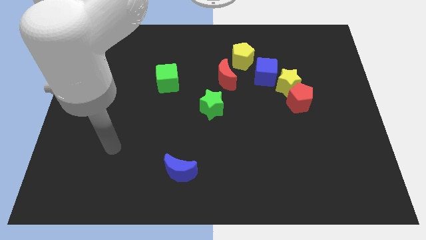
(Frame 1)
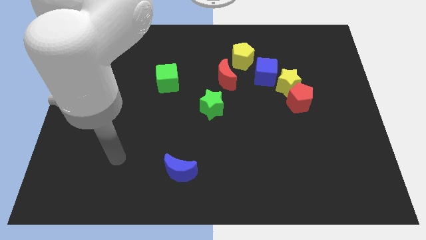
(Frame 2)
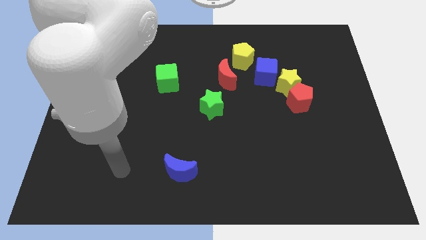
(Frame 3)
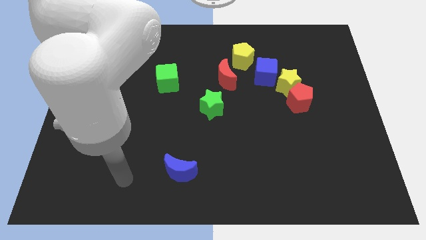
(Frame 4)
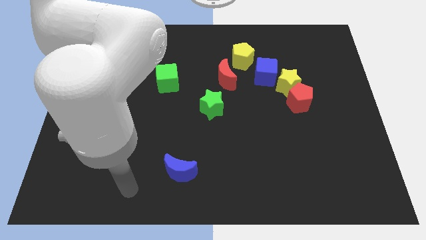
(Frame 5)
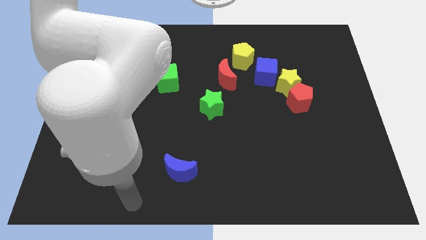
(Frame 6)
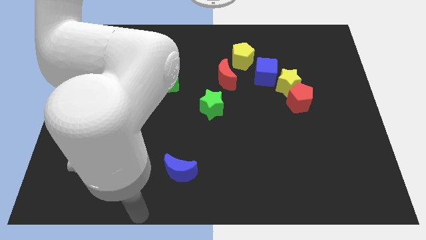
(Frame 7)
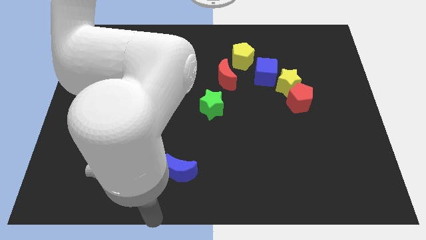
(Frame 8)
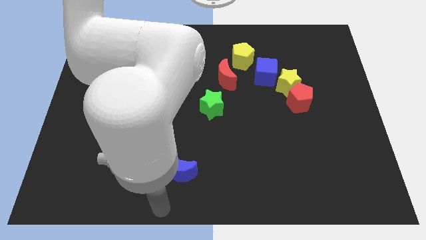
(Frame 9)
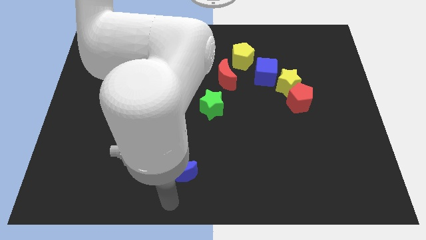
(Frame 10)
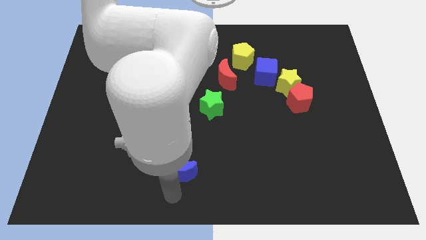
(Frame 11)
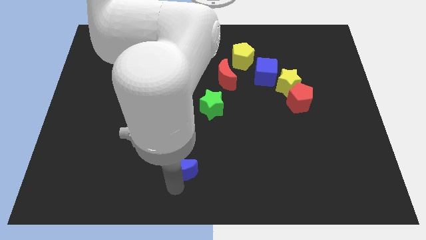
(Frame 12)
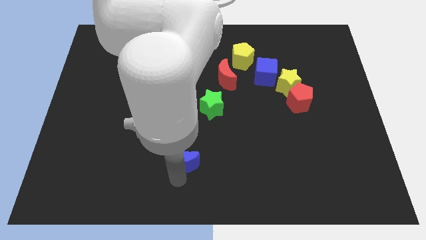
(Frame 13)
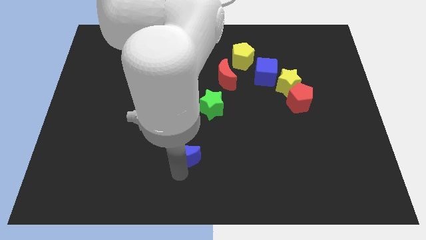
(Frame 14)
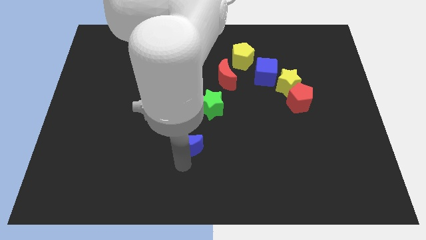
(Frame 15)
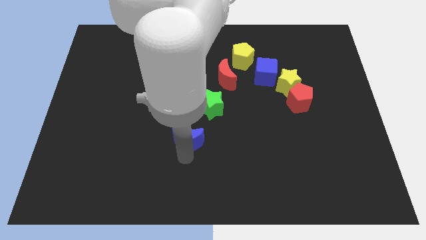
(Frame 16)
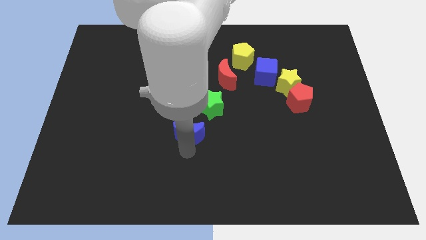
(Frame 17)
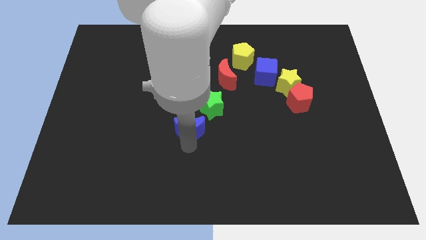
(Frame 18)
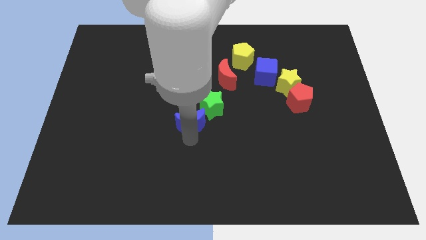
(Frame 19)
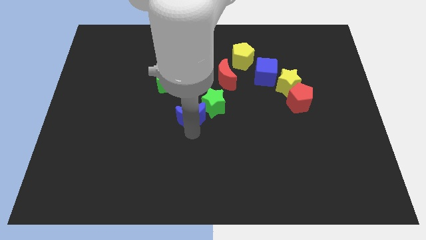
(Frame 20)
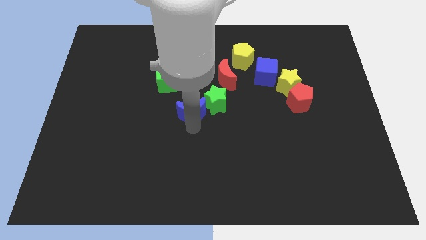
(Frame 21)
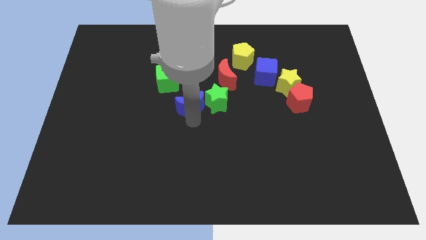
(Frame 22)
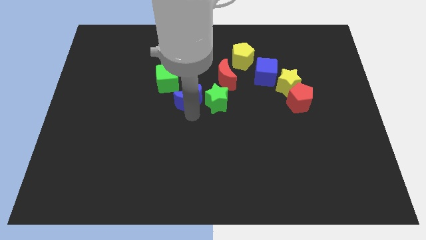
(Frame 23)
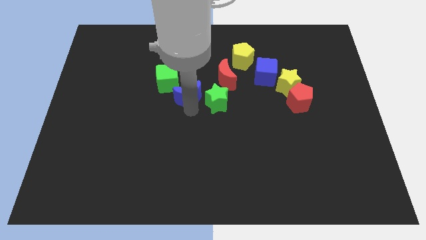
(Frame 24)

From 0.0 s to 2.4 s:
push the blue moon up

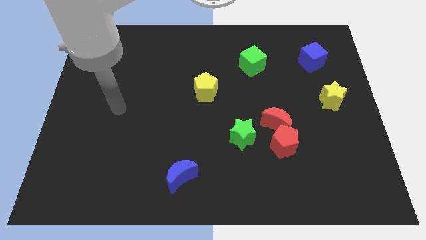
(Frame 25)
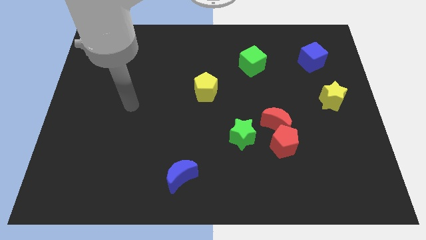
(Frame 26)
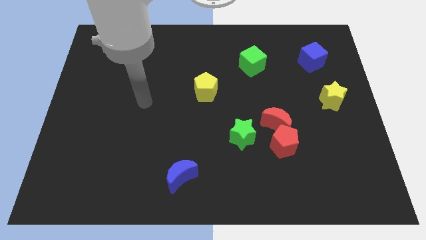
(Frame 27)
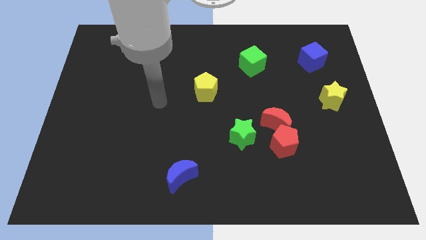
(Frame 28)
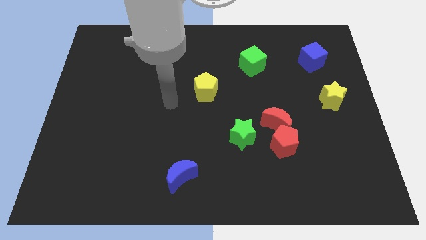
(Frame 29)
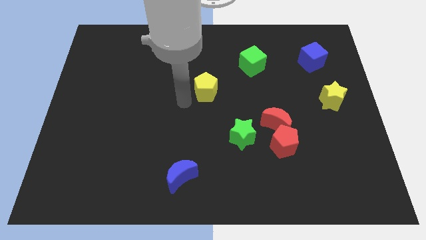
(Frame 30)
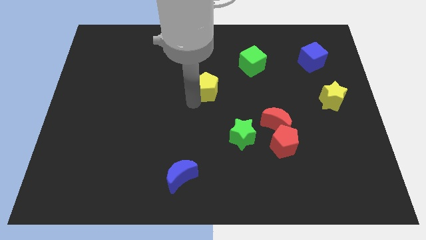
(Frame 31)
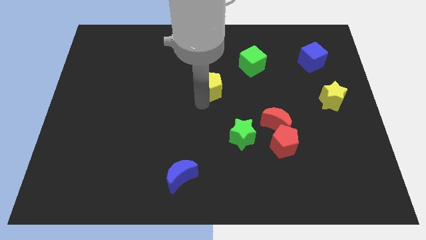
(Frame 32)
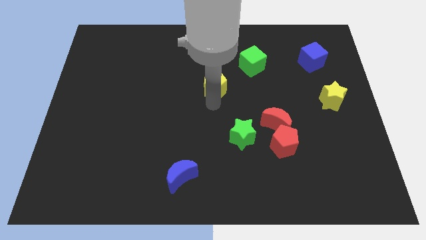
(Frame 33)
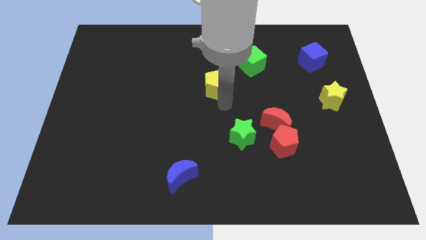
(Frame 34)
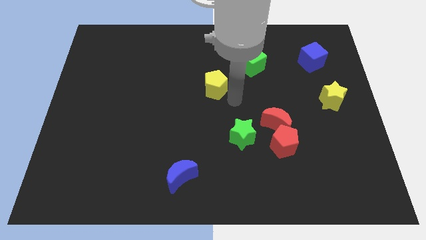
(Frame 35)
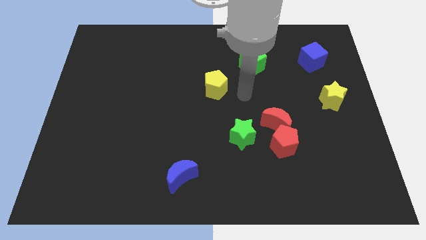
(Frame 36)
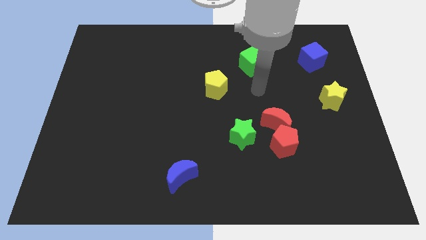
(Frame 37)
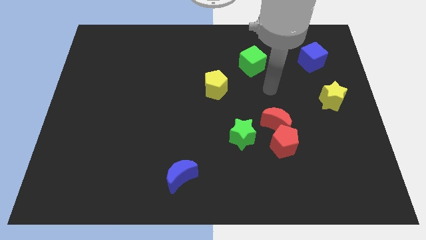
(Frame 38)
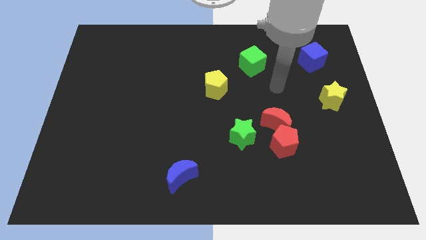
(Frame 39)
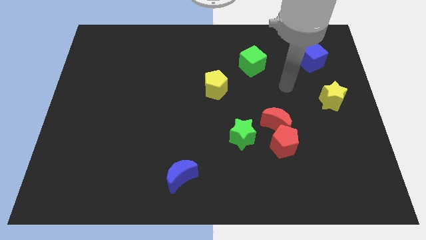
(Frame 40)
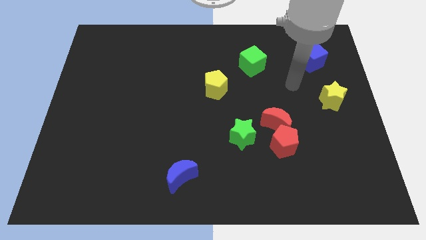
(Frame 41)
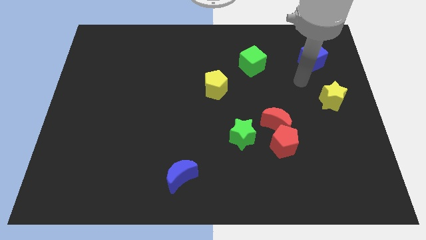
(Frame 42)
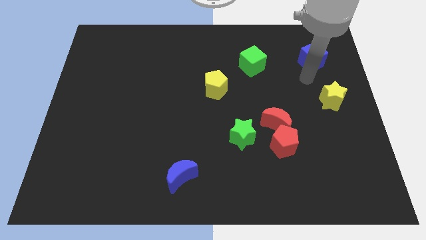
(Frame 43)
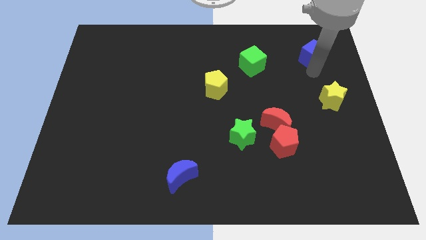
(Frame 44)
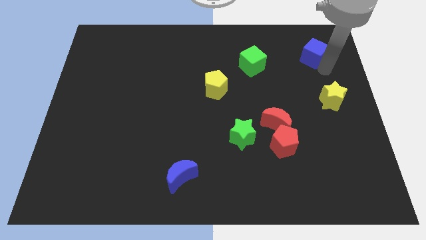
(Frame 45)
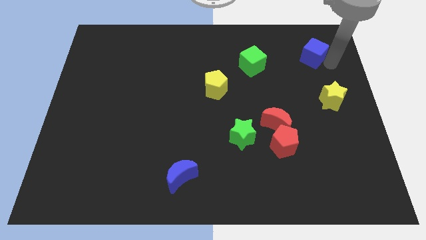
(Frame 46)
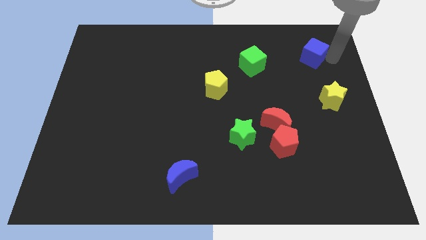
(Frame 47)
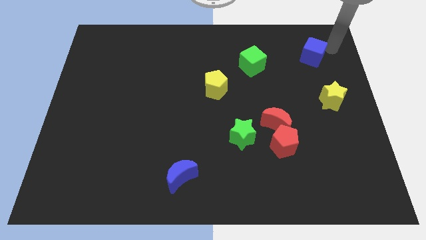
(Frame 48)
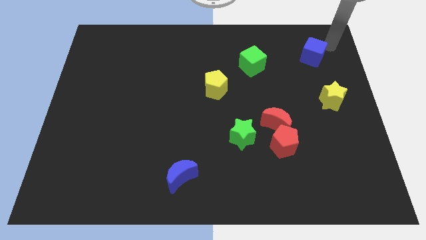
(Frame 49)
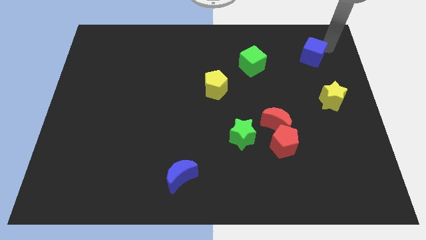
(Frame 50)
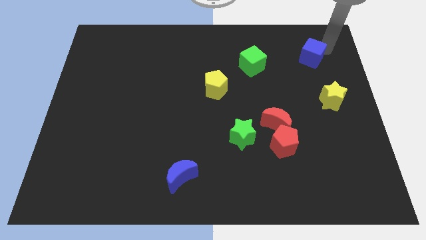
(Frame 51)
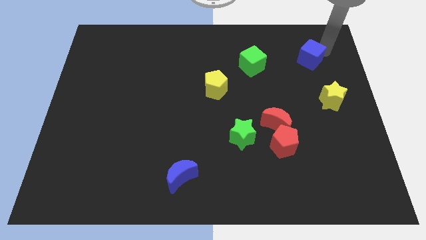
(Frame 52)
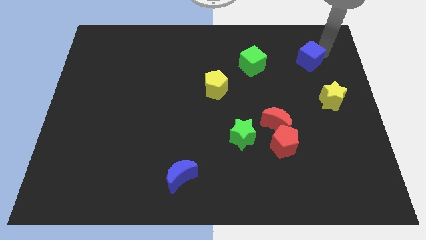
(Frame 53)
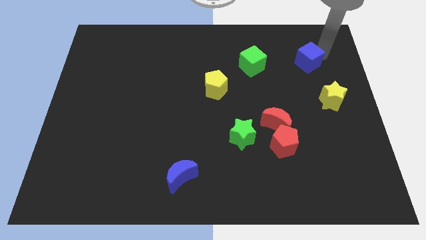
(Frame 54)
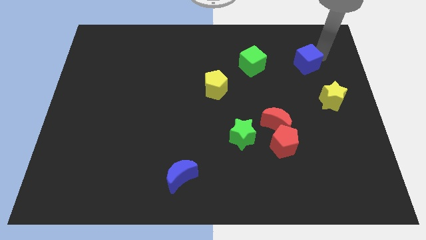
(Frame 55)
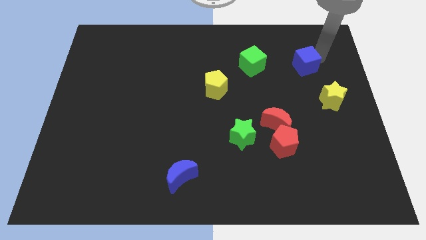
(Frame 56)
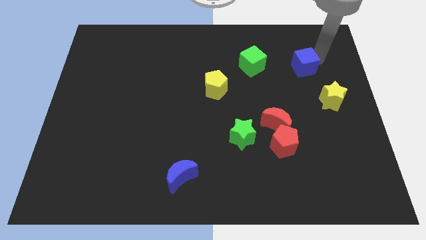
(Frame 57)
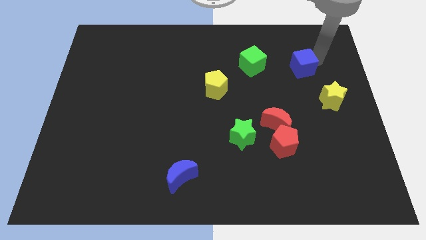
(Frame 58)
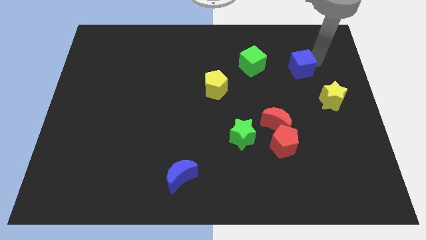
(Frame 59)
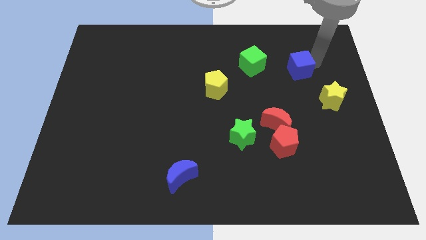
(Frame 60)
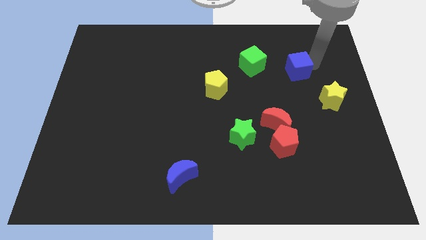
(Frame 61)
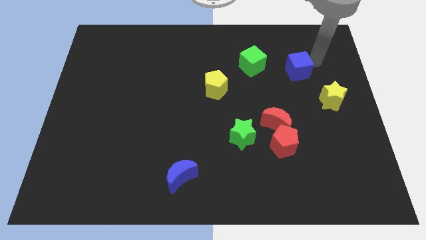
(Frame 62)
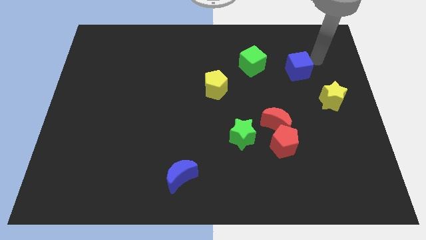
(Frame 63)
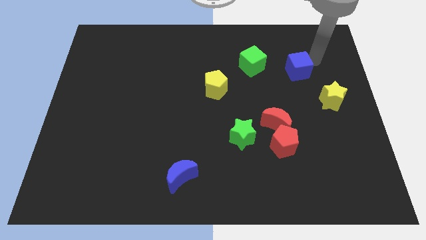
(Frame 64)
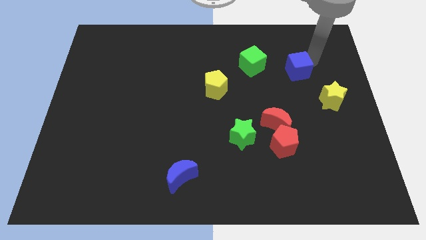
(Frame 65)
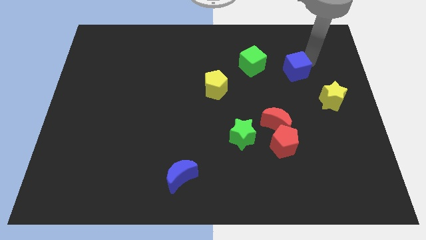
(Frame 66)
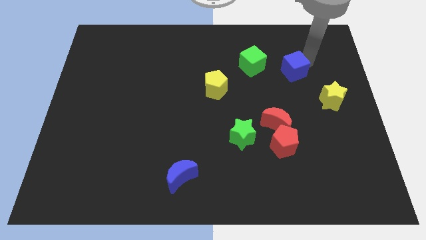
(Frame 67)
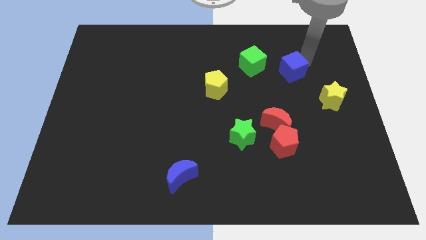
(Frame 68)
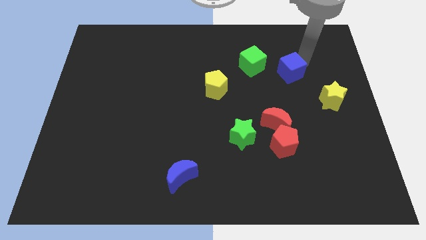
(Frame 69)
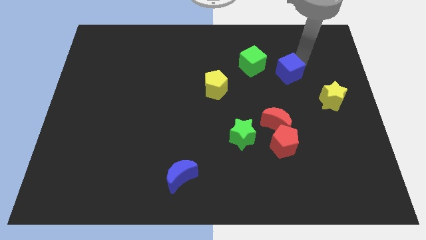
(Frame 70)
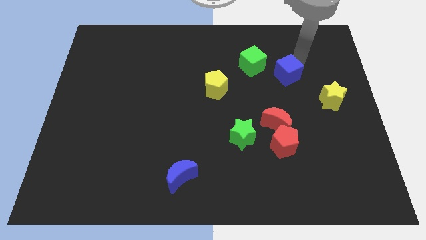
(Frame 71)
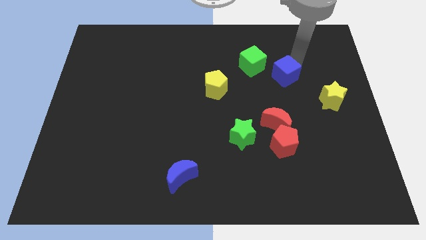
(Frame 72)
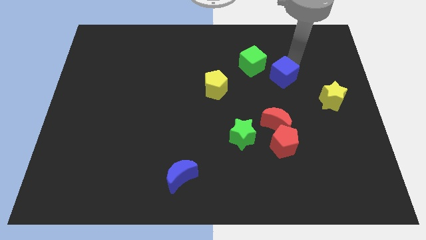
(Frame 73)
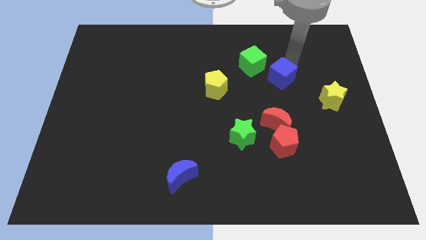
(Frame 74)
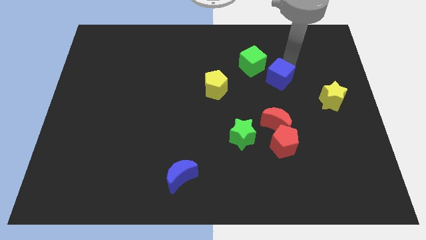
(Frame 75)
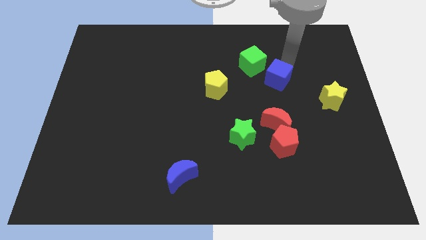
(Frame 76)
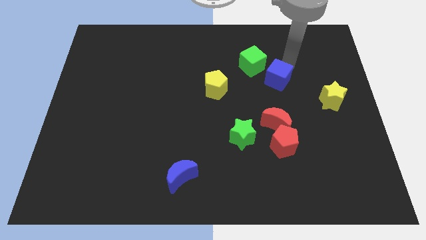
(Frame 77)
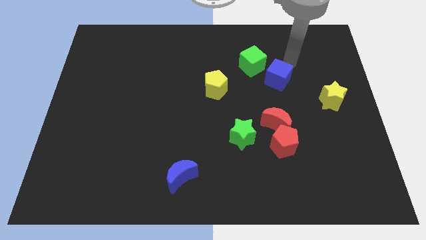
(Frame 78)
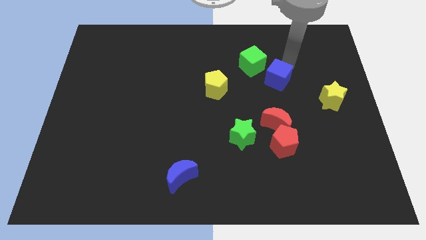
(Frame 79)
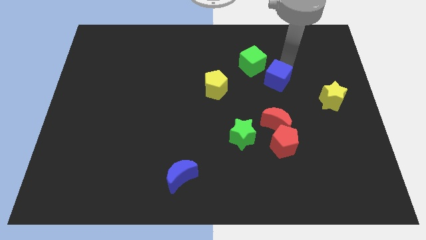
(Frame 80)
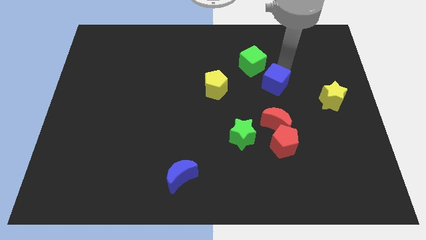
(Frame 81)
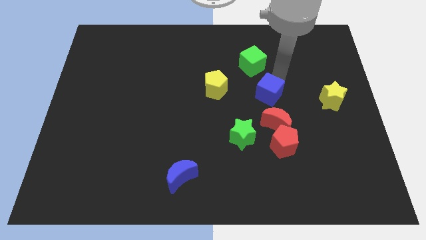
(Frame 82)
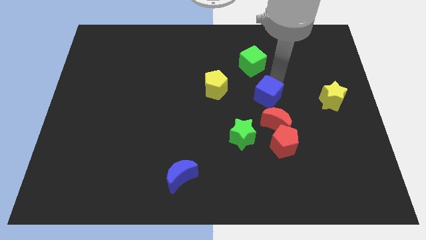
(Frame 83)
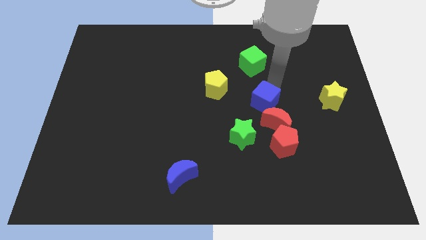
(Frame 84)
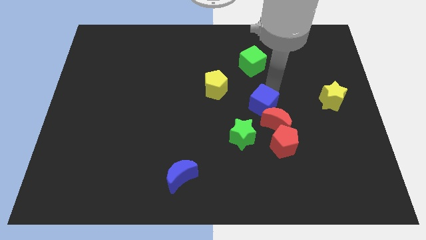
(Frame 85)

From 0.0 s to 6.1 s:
move the blue cube down and left
